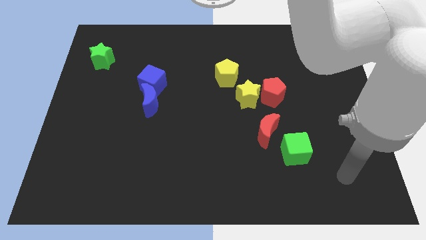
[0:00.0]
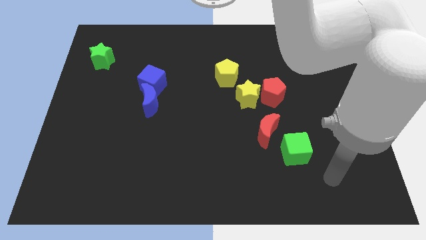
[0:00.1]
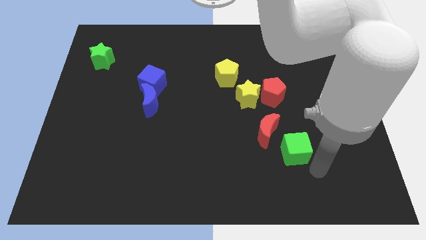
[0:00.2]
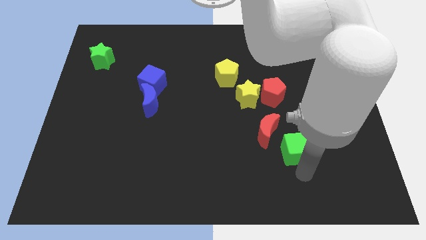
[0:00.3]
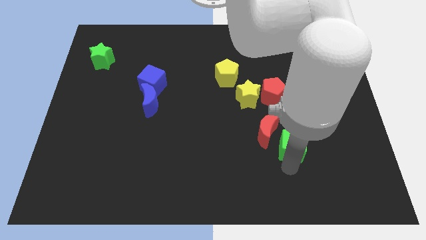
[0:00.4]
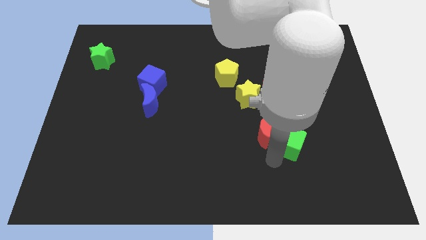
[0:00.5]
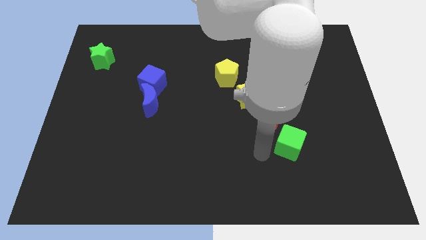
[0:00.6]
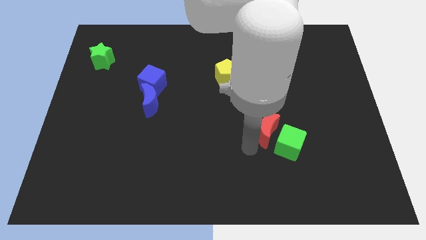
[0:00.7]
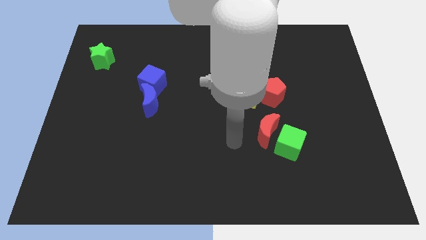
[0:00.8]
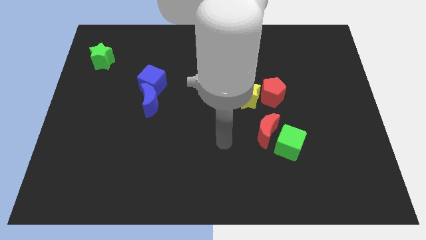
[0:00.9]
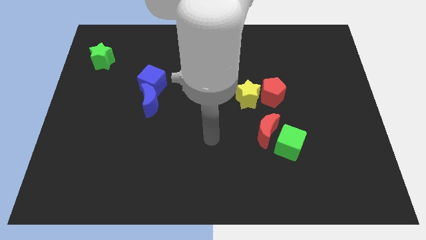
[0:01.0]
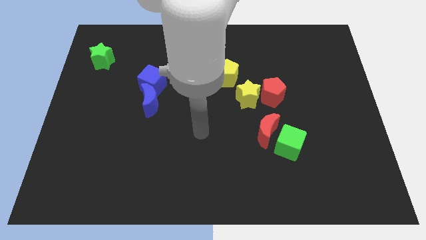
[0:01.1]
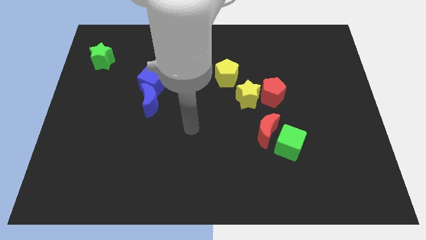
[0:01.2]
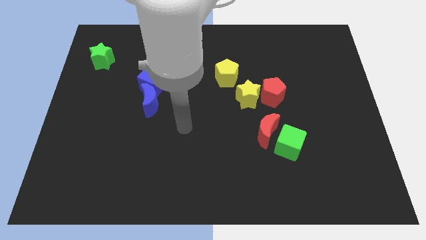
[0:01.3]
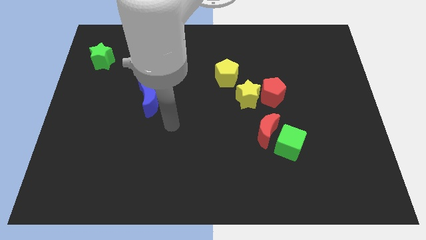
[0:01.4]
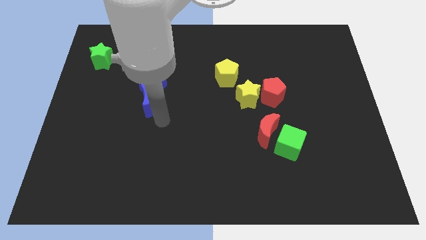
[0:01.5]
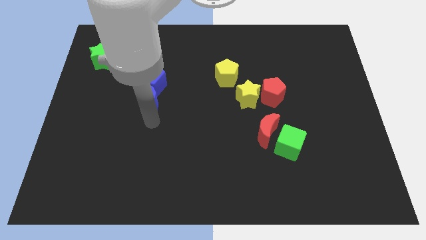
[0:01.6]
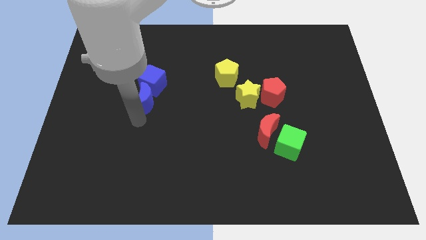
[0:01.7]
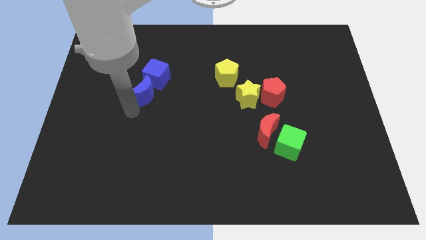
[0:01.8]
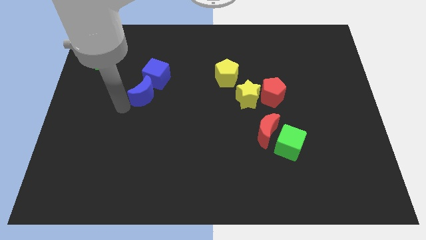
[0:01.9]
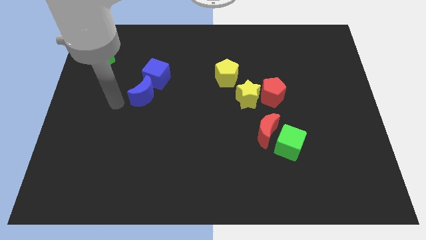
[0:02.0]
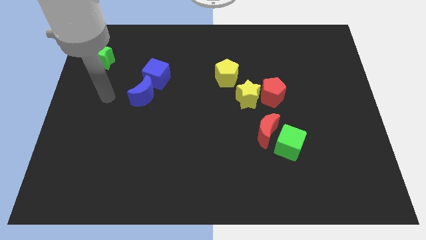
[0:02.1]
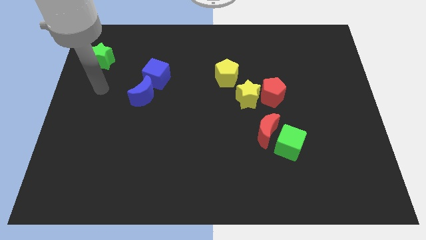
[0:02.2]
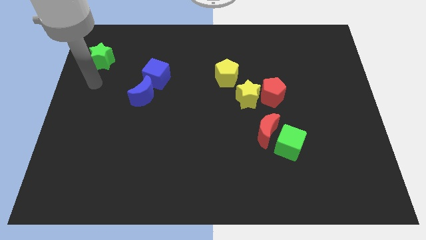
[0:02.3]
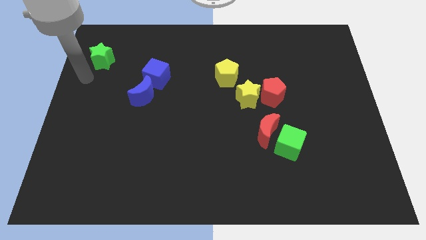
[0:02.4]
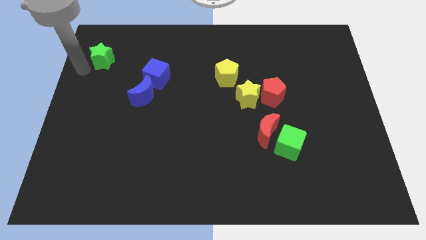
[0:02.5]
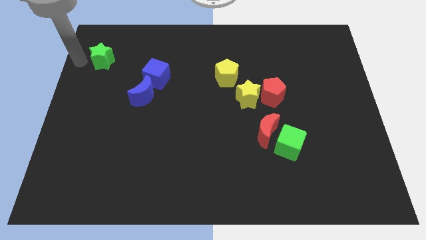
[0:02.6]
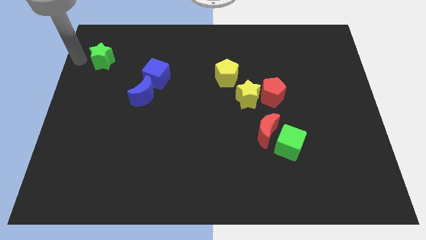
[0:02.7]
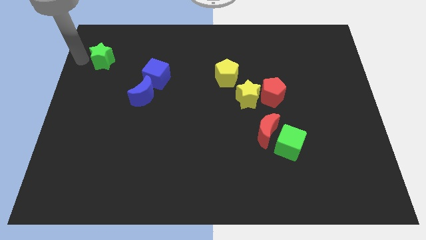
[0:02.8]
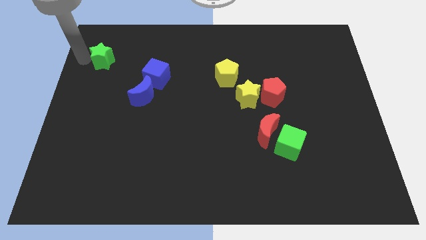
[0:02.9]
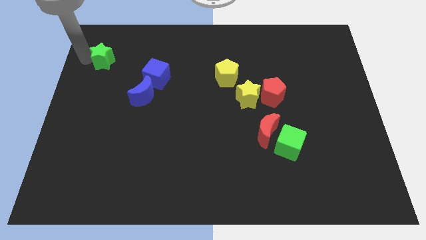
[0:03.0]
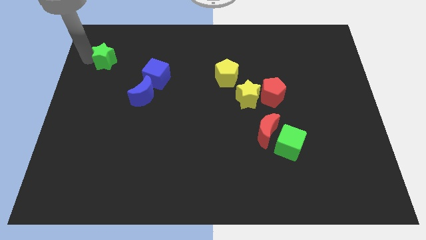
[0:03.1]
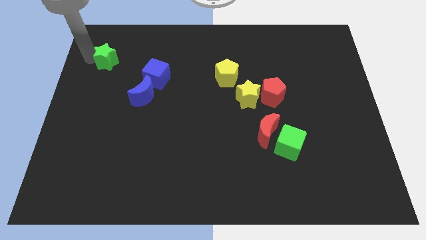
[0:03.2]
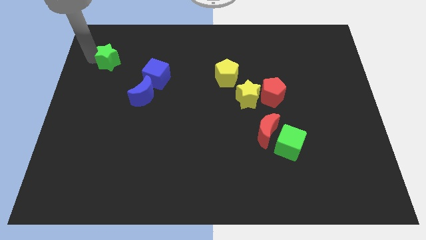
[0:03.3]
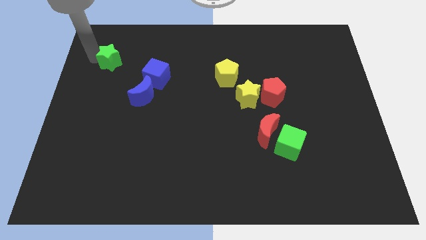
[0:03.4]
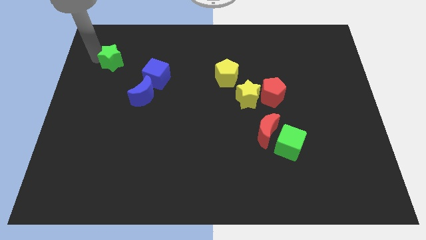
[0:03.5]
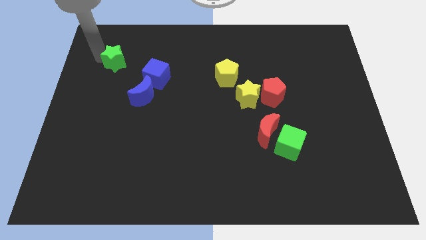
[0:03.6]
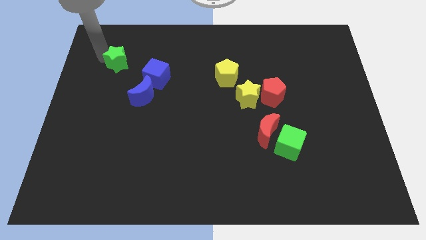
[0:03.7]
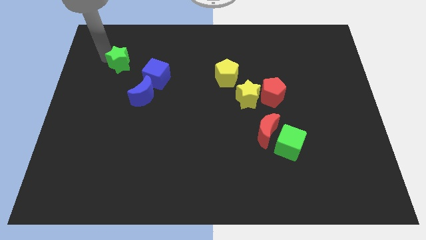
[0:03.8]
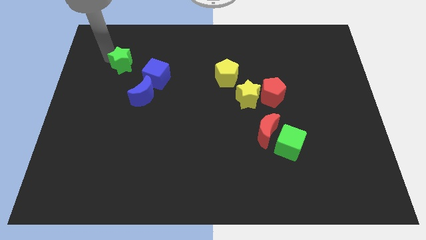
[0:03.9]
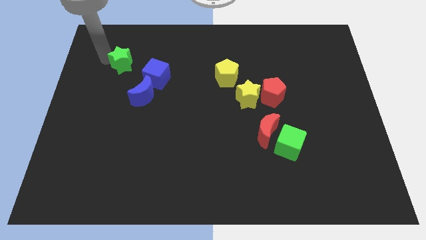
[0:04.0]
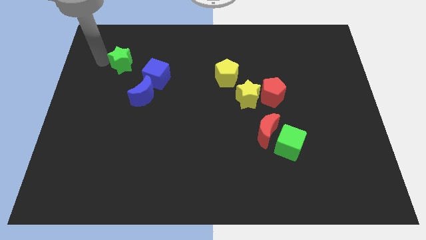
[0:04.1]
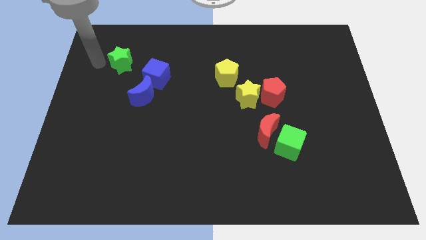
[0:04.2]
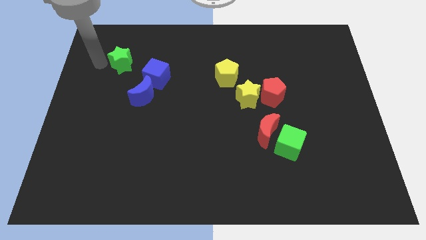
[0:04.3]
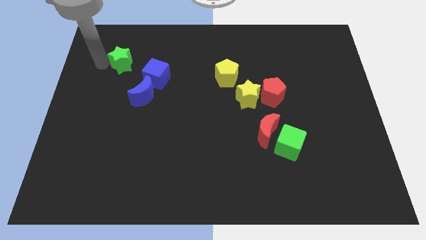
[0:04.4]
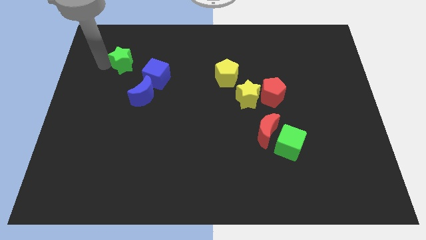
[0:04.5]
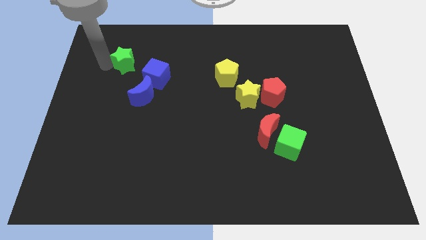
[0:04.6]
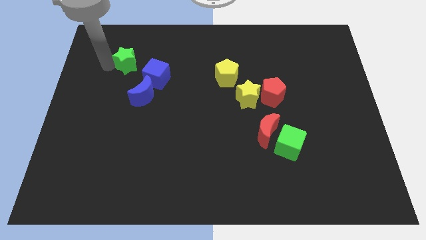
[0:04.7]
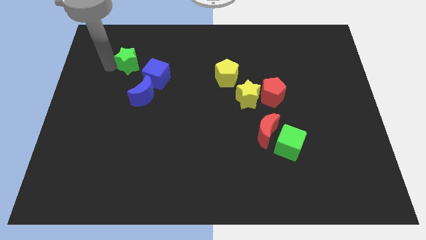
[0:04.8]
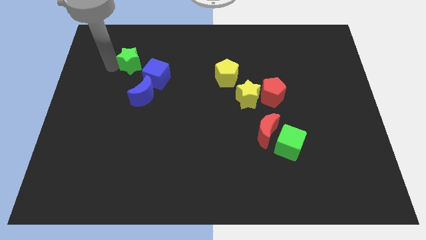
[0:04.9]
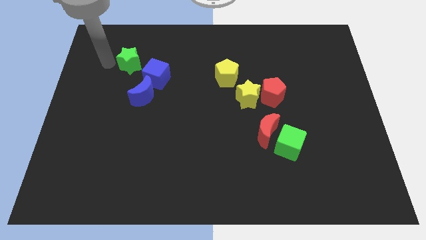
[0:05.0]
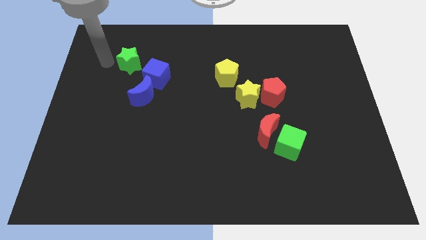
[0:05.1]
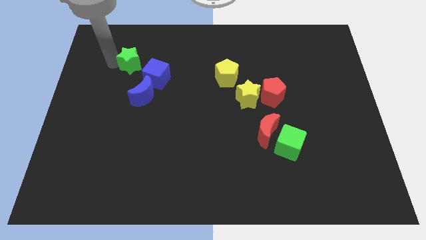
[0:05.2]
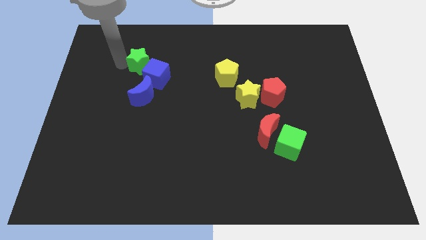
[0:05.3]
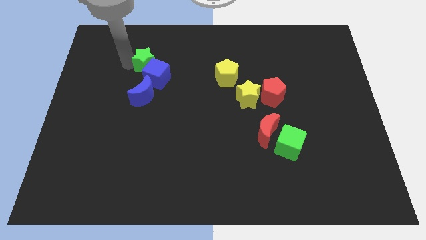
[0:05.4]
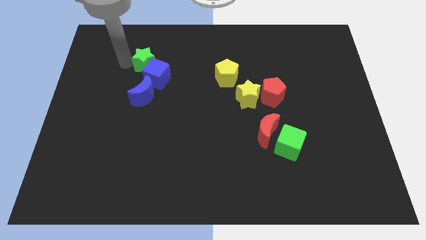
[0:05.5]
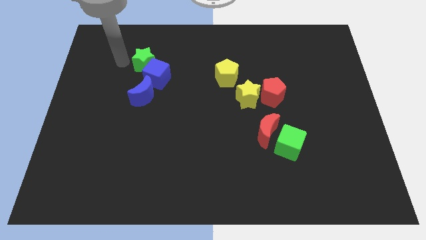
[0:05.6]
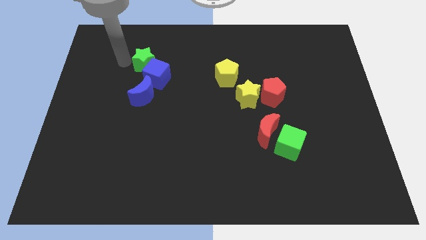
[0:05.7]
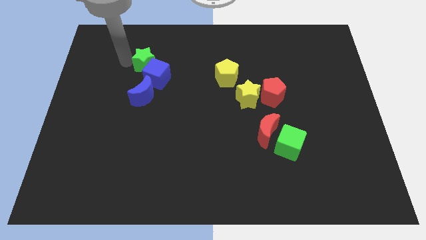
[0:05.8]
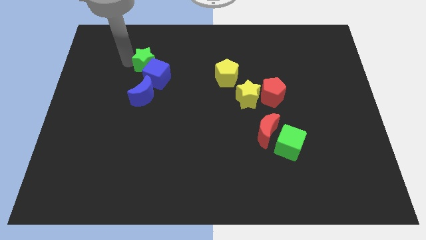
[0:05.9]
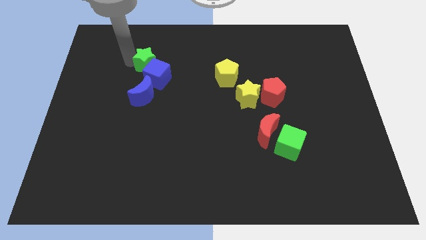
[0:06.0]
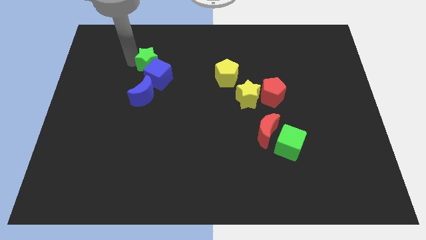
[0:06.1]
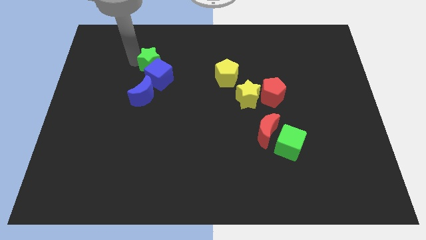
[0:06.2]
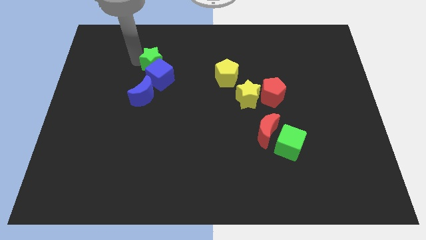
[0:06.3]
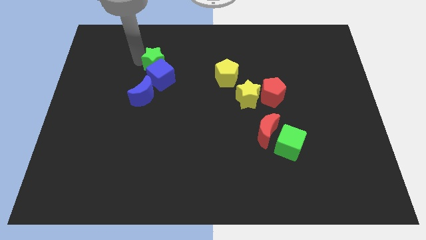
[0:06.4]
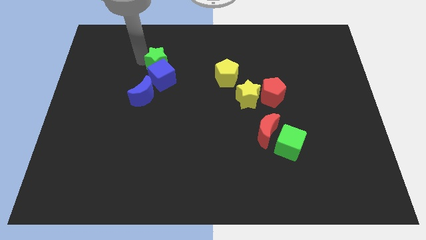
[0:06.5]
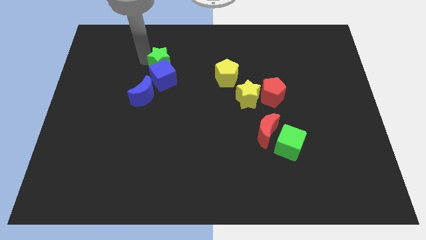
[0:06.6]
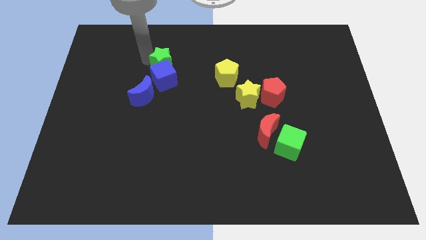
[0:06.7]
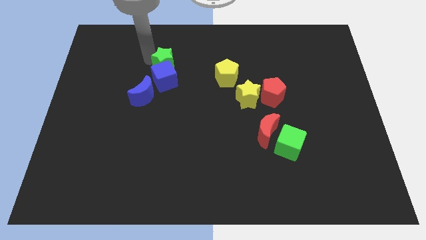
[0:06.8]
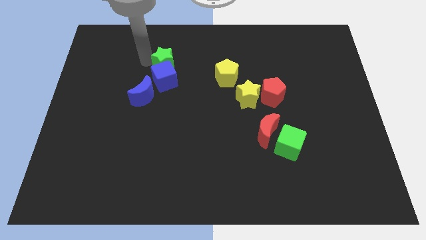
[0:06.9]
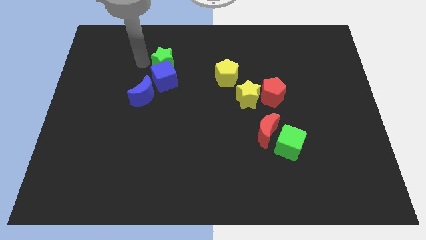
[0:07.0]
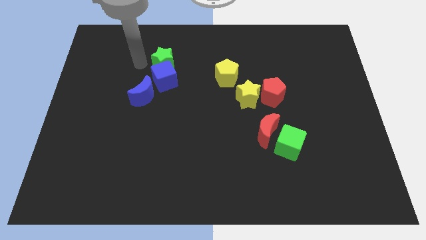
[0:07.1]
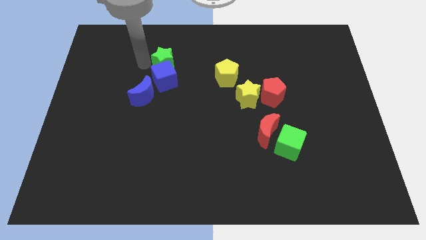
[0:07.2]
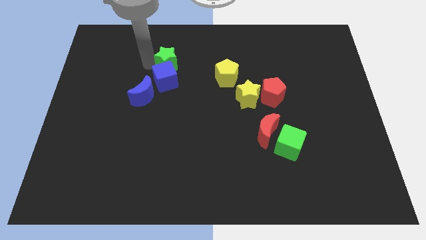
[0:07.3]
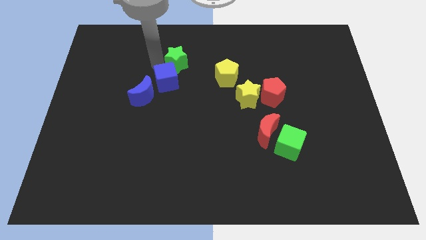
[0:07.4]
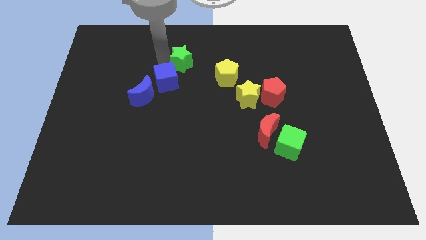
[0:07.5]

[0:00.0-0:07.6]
slide the green star right

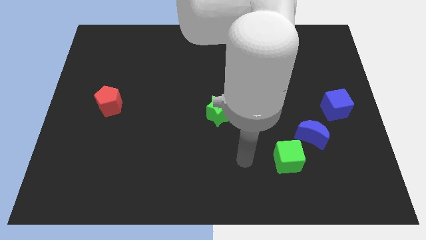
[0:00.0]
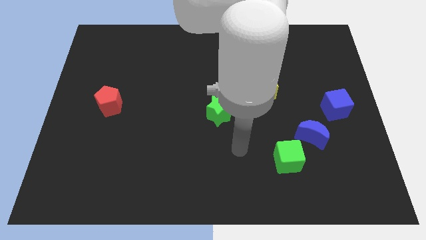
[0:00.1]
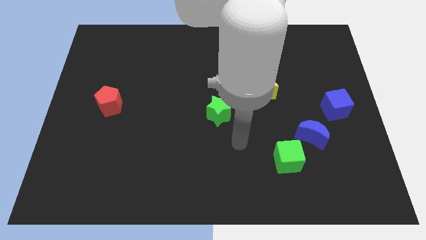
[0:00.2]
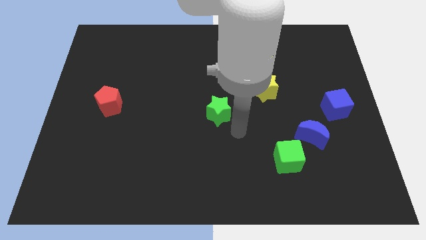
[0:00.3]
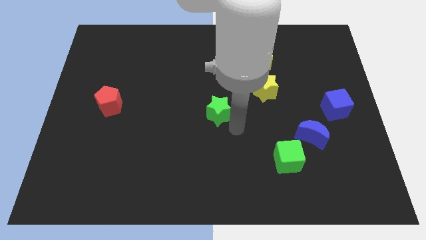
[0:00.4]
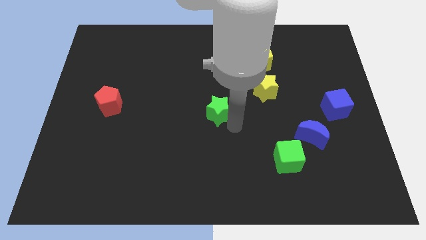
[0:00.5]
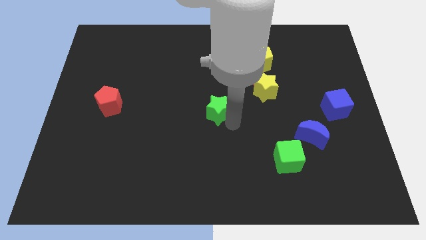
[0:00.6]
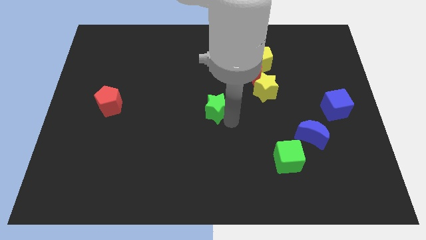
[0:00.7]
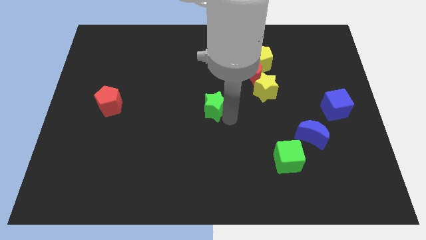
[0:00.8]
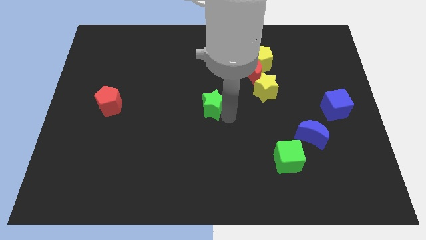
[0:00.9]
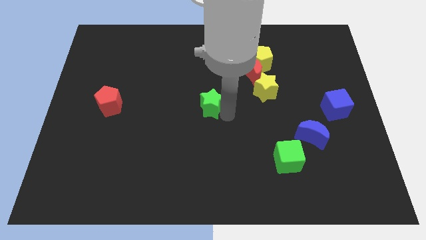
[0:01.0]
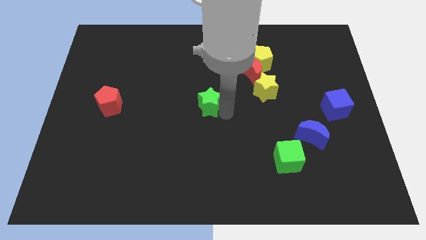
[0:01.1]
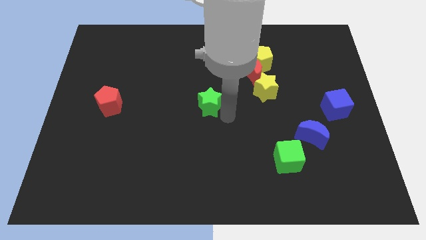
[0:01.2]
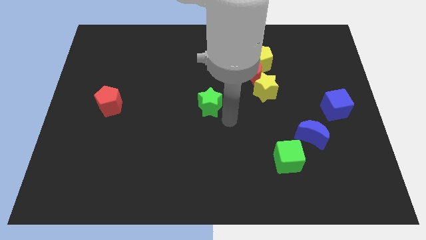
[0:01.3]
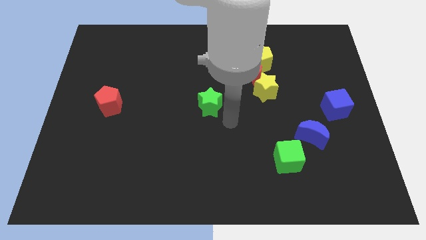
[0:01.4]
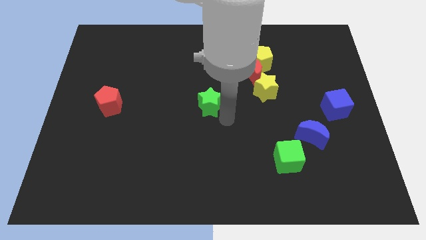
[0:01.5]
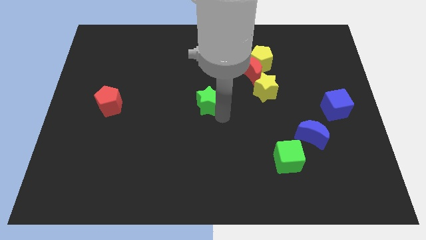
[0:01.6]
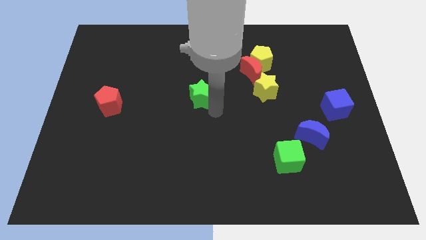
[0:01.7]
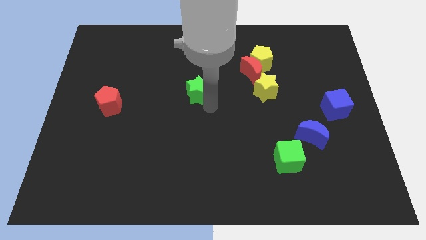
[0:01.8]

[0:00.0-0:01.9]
push the green star up and to the left a little
